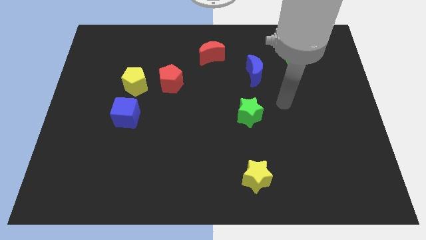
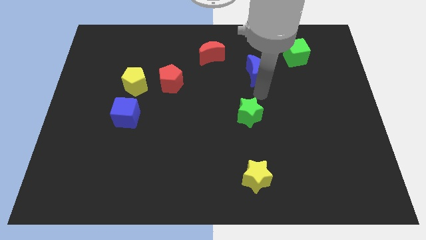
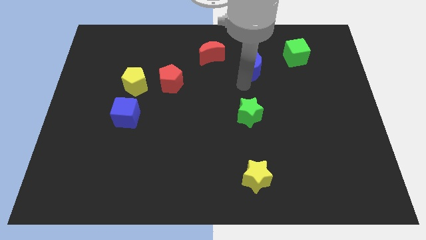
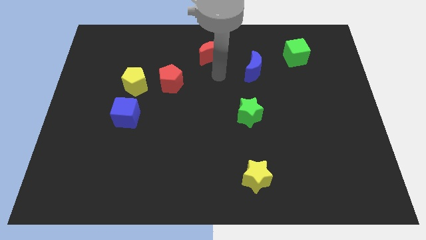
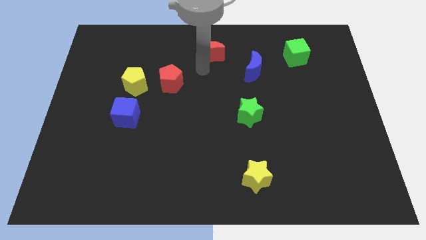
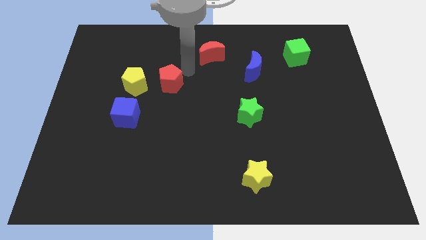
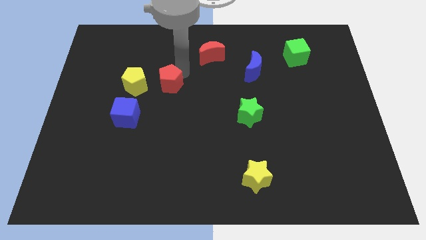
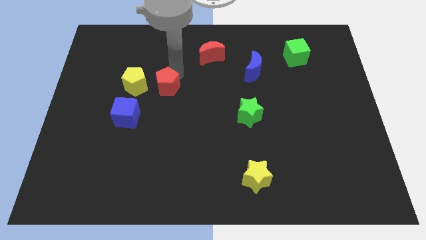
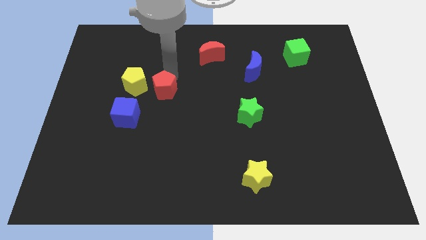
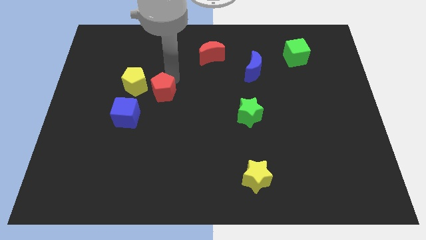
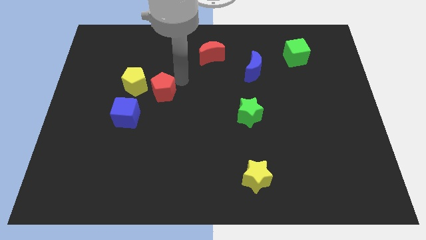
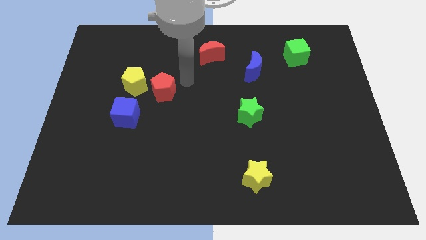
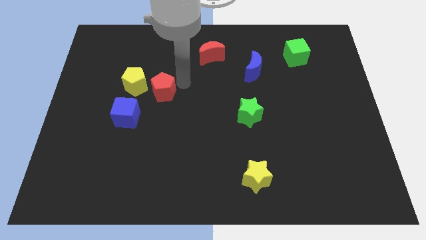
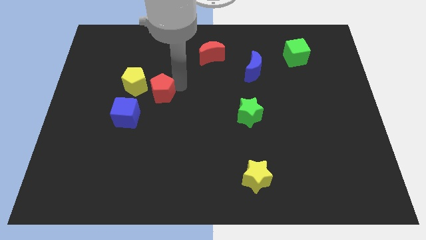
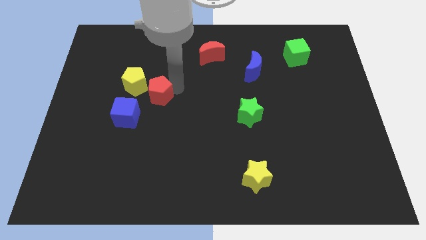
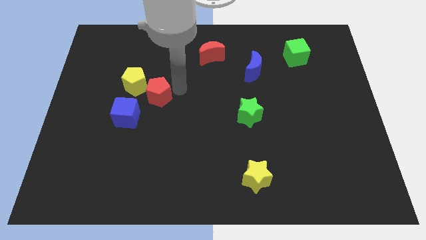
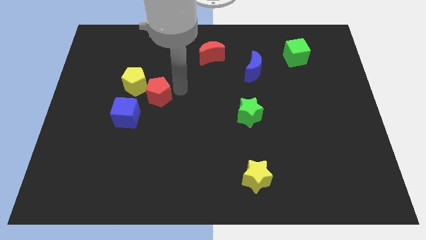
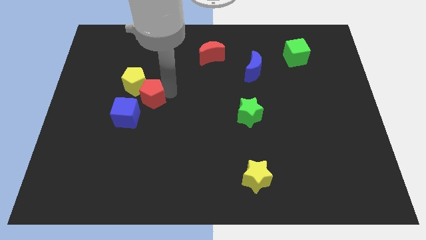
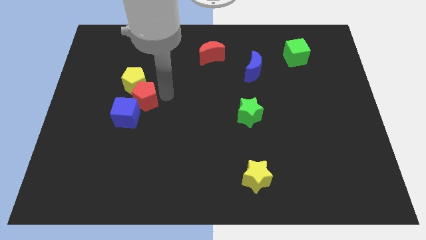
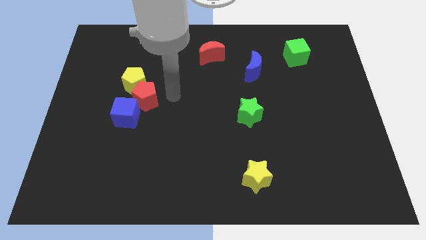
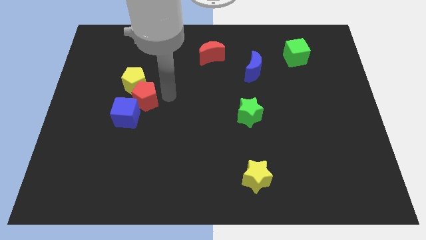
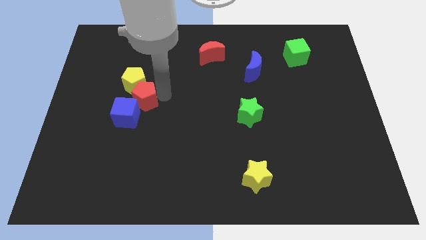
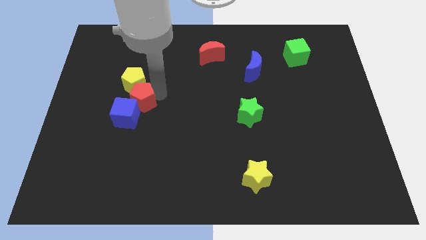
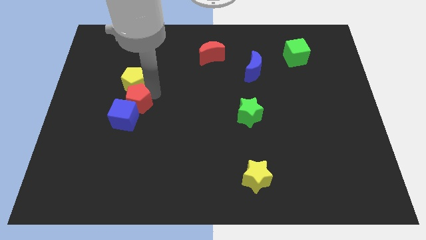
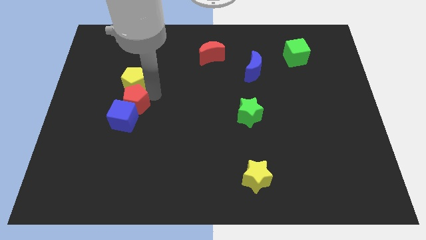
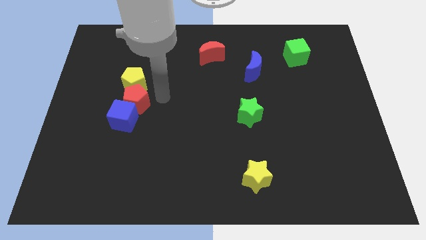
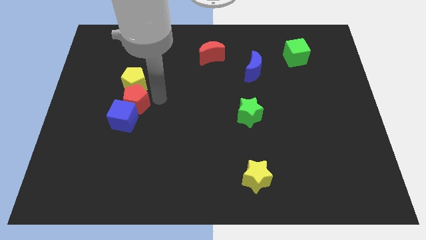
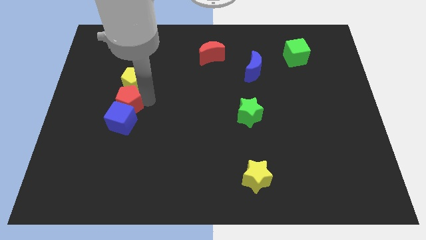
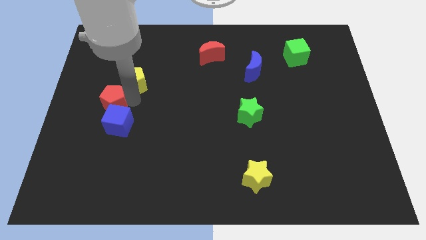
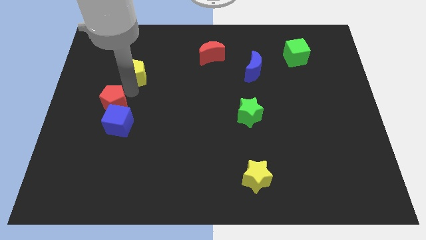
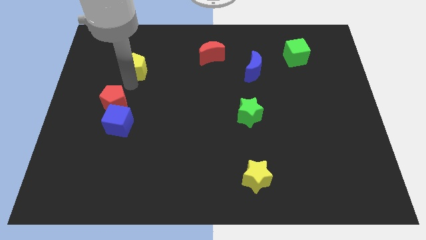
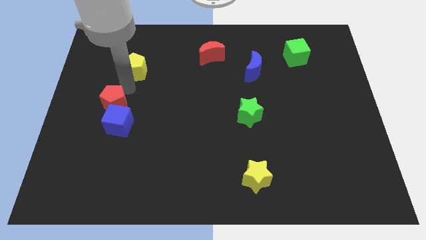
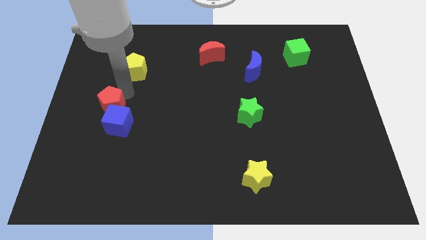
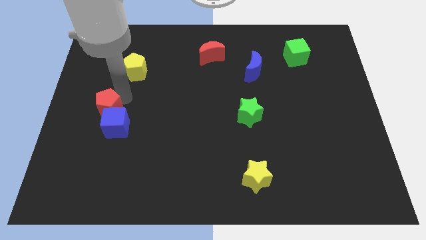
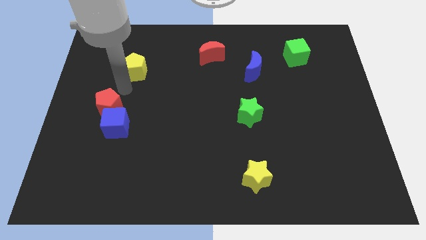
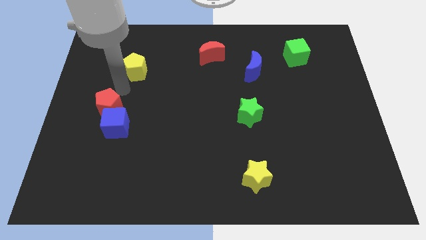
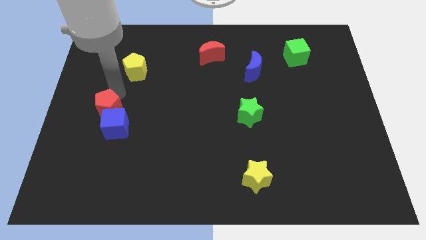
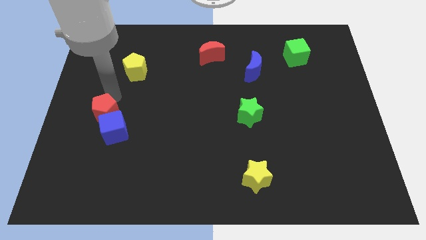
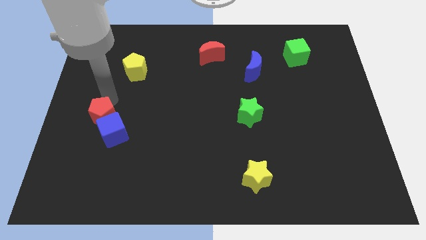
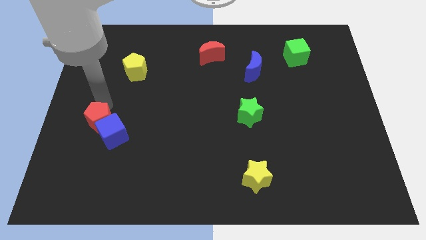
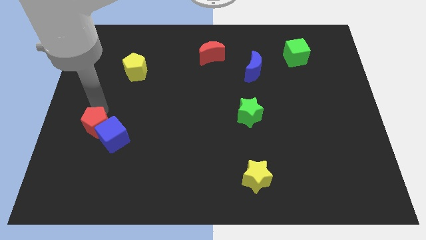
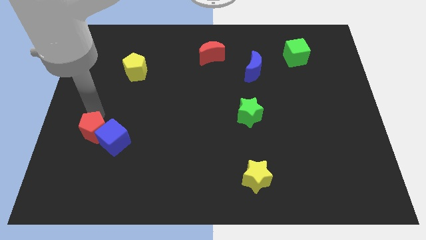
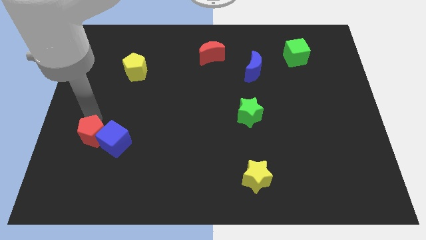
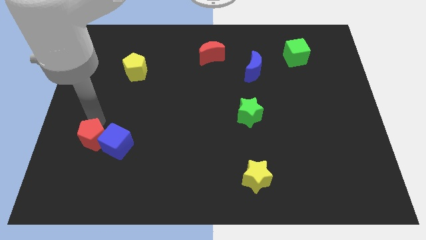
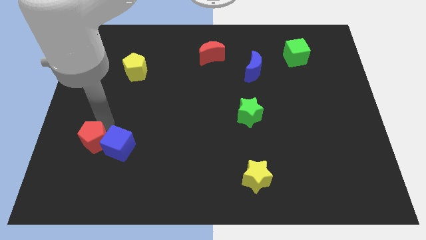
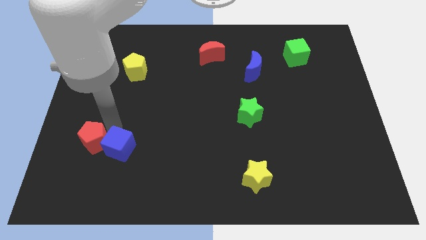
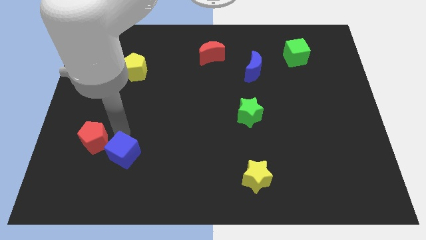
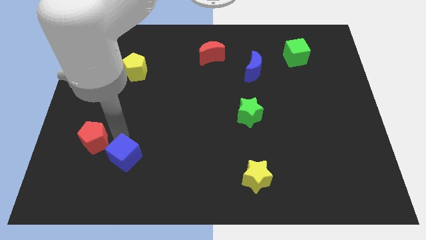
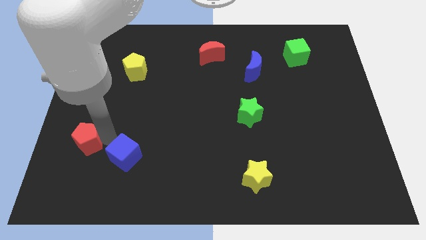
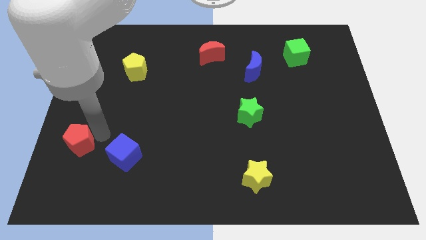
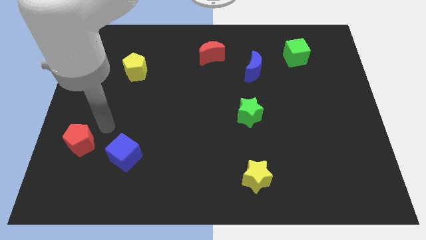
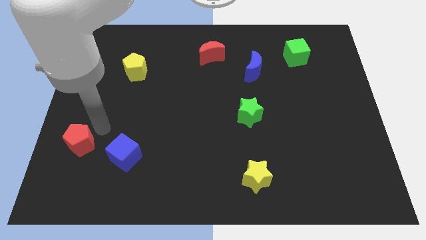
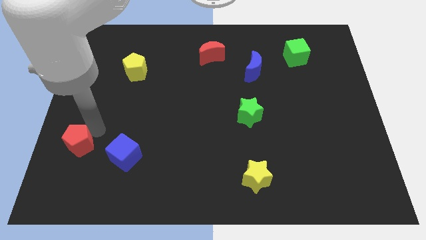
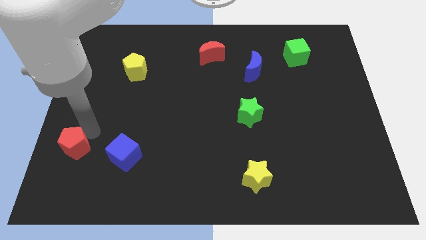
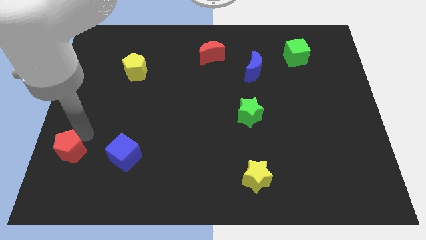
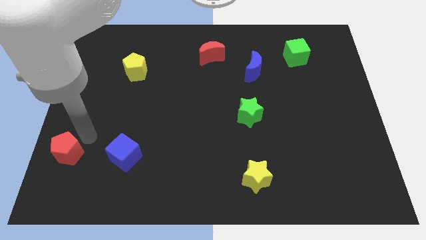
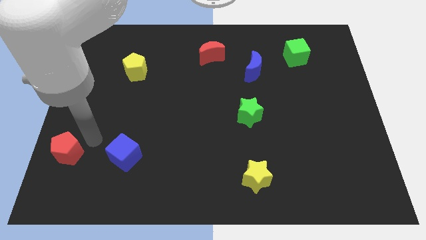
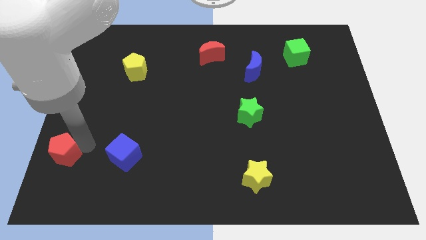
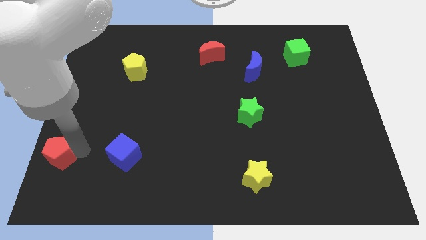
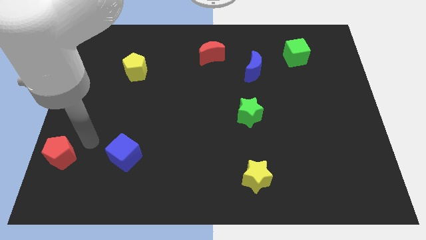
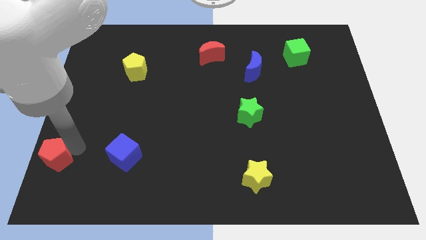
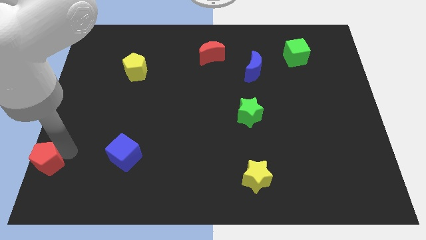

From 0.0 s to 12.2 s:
slide the red pentagon to the lower left corner

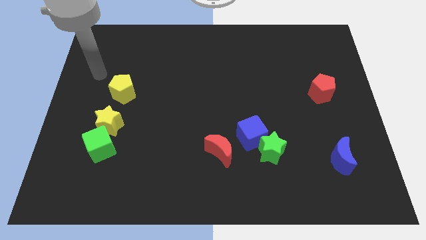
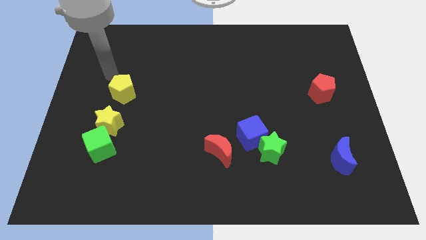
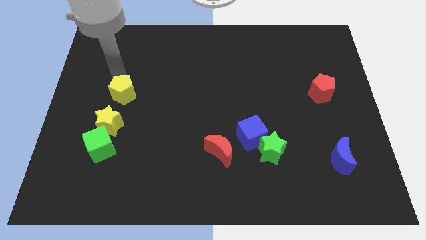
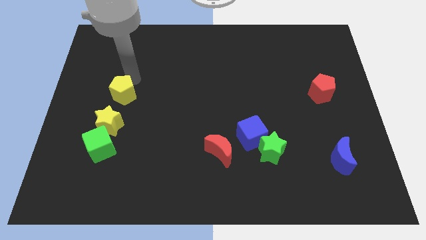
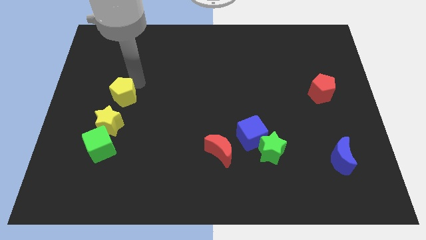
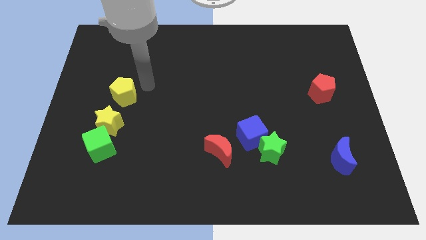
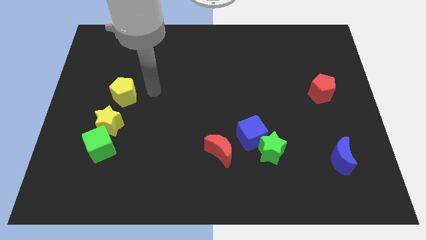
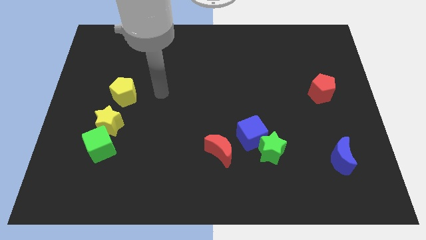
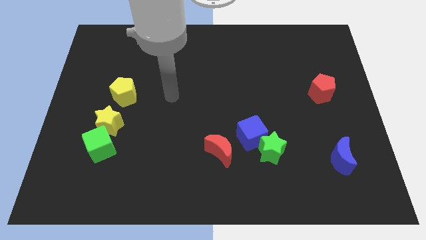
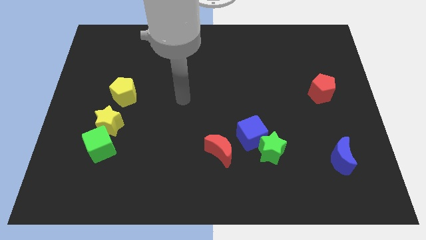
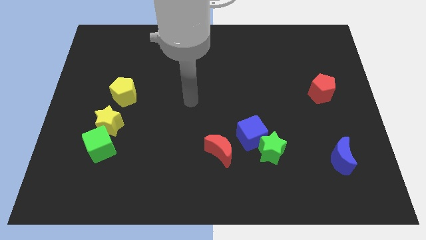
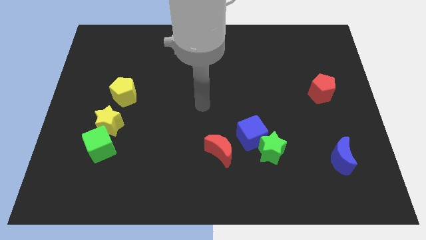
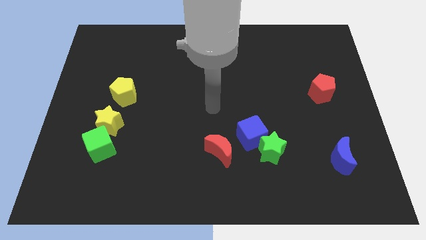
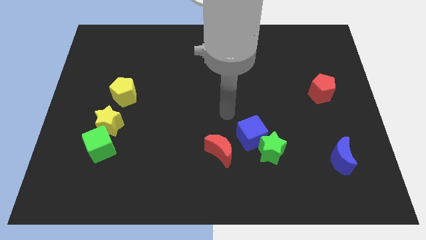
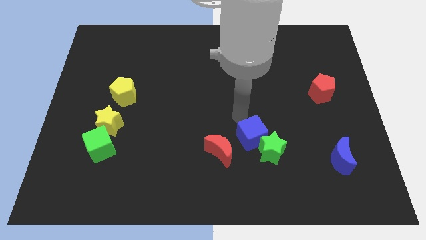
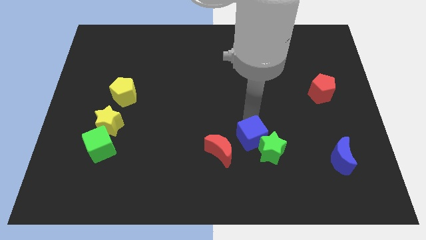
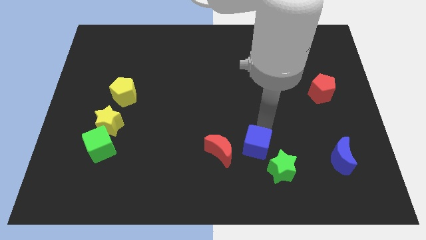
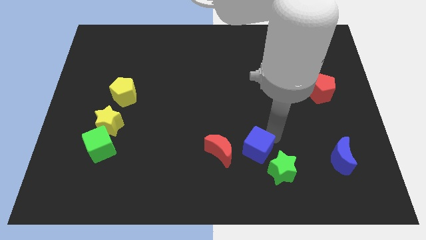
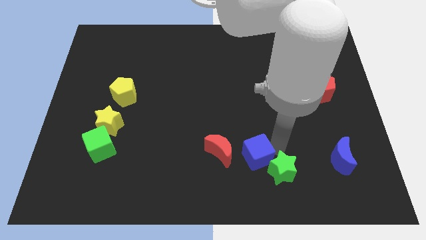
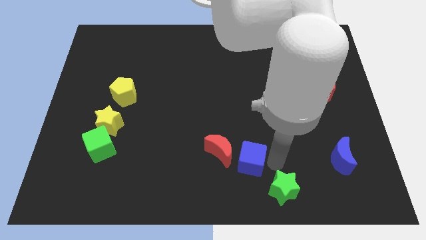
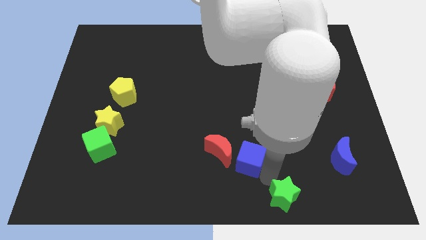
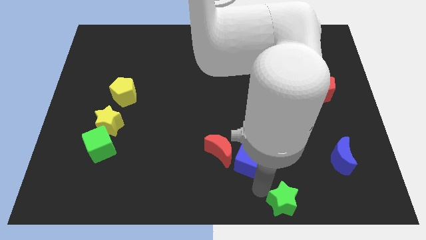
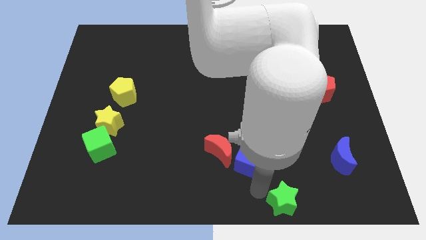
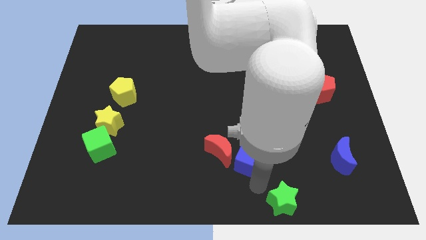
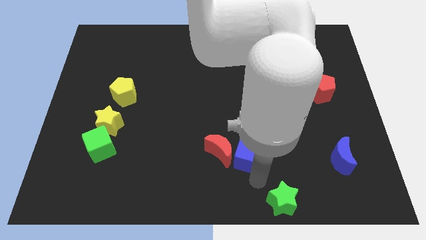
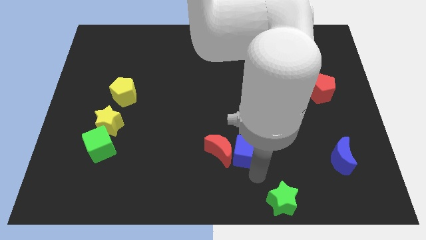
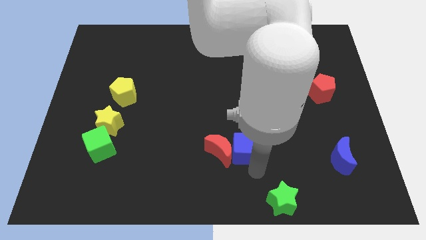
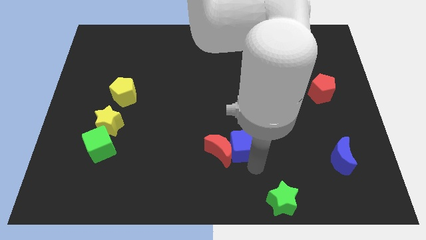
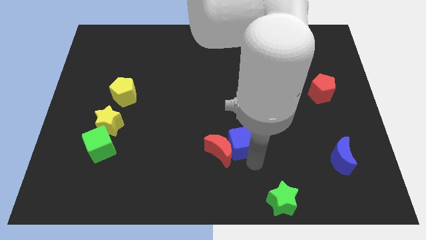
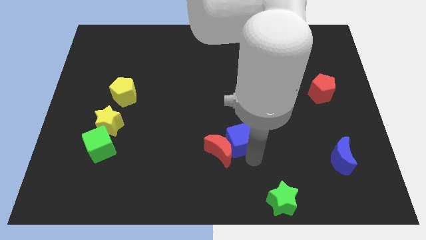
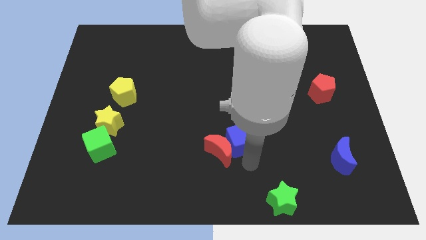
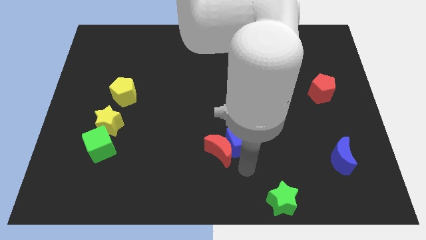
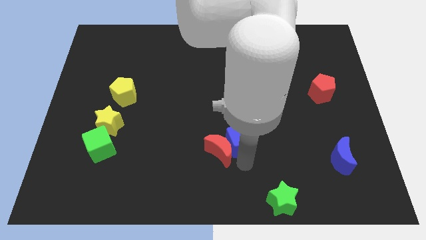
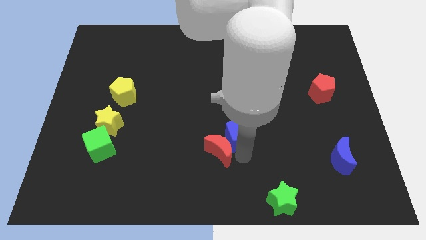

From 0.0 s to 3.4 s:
put the blue cube to the middle
